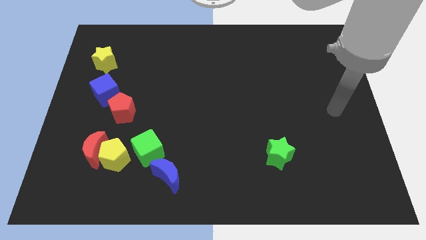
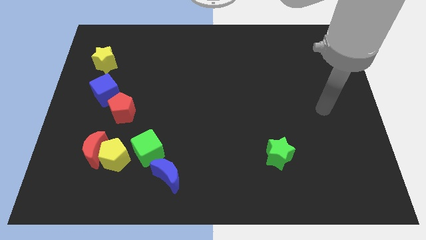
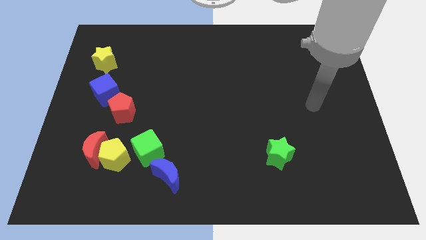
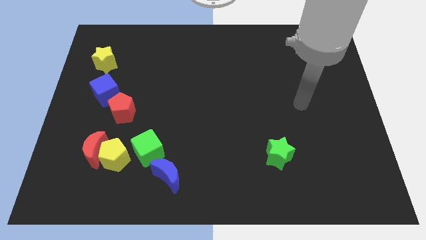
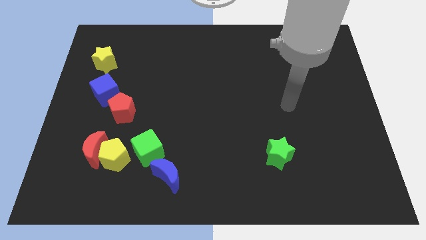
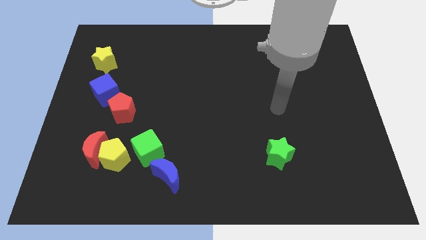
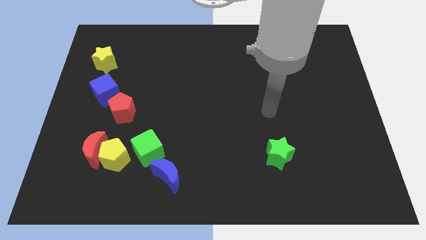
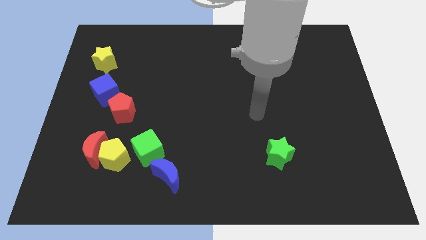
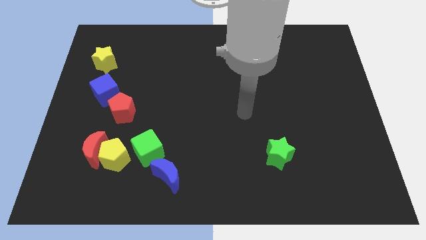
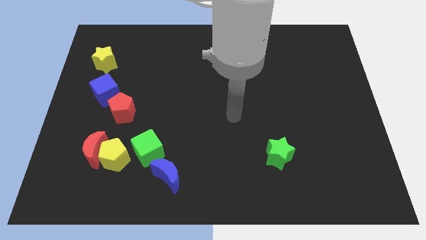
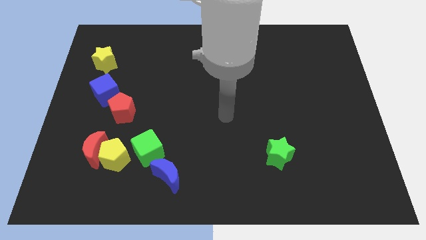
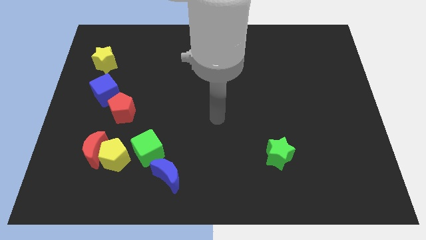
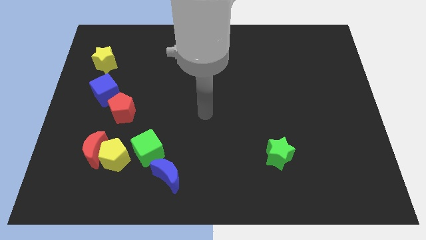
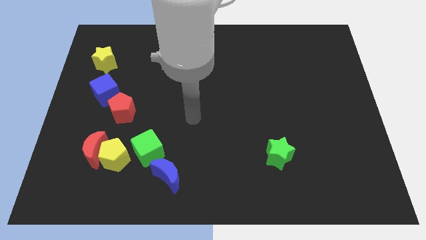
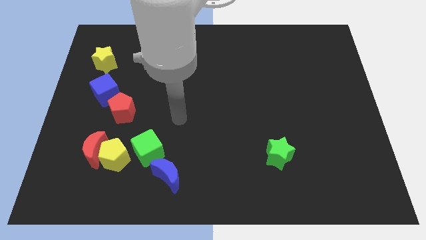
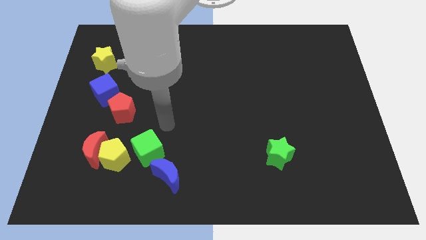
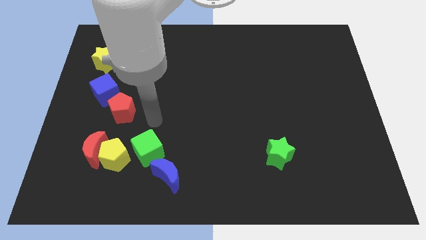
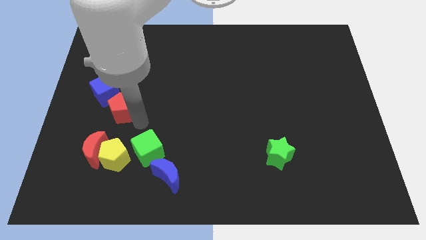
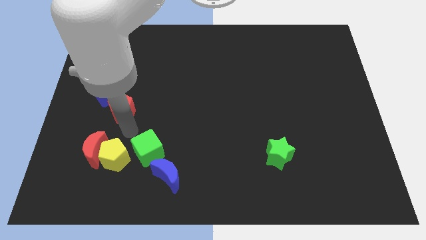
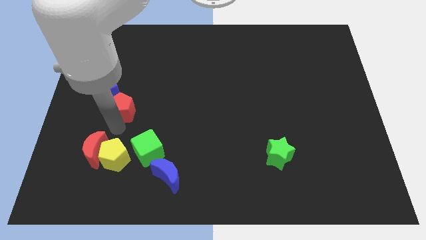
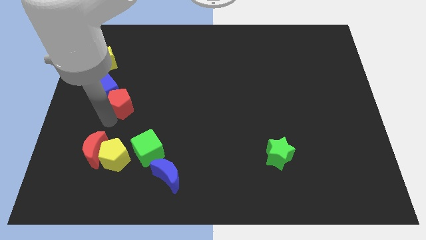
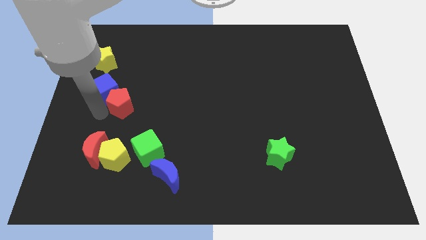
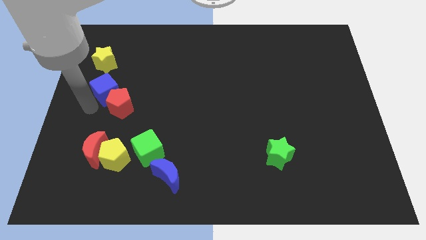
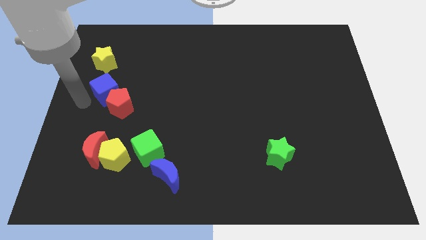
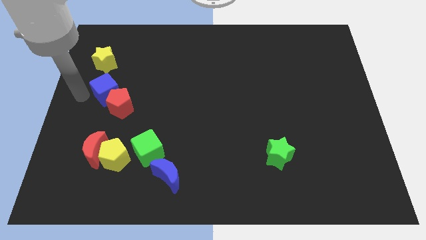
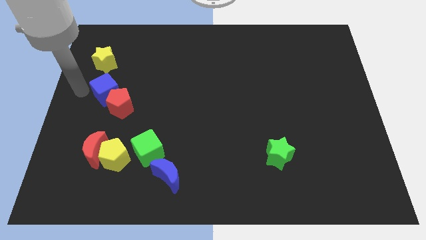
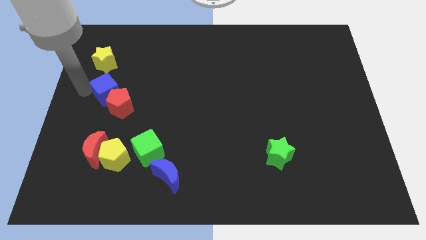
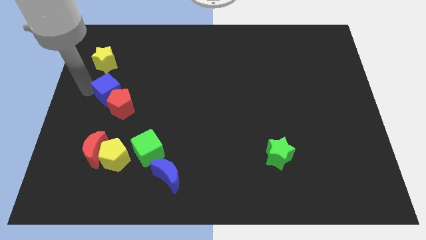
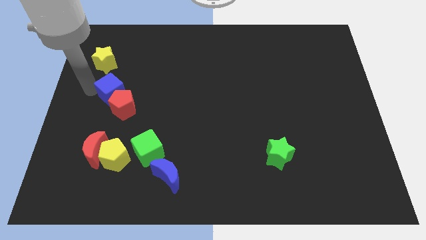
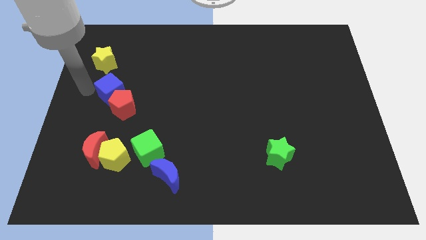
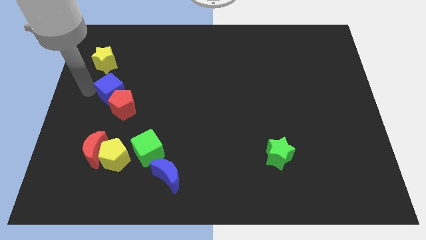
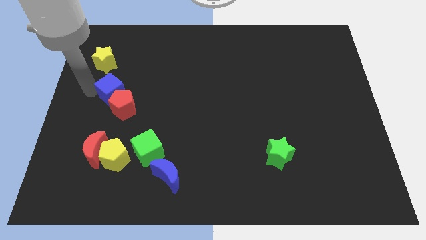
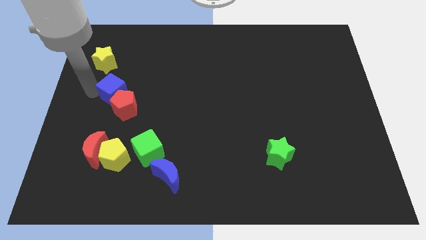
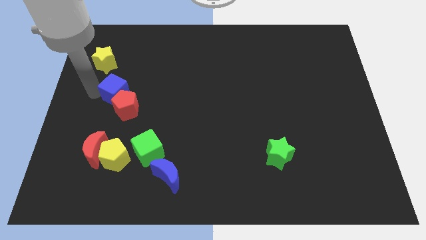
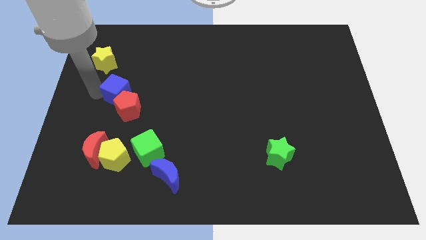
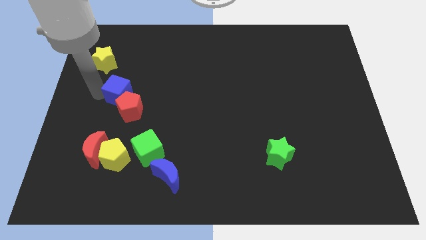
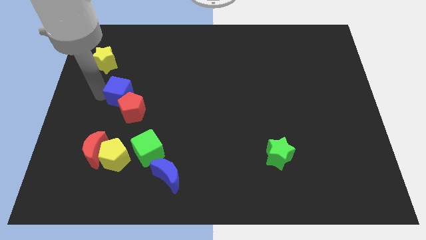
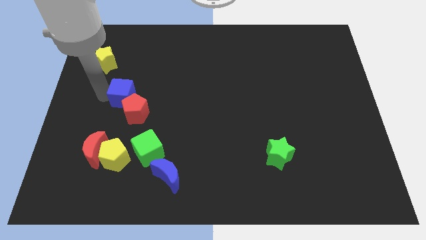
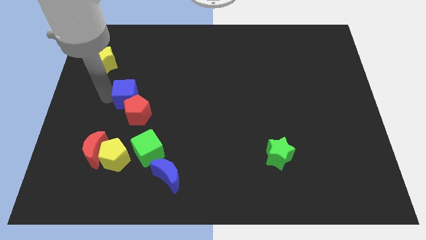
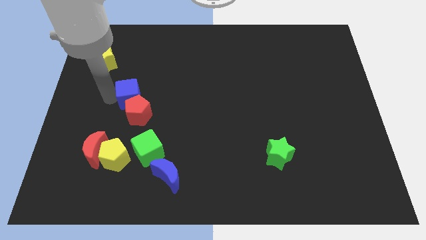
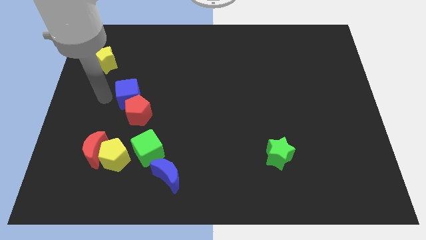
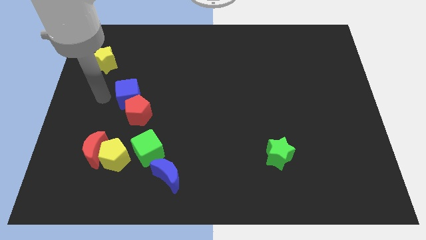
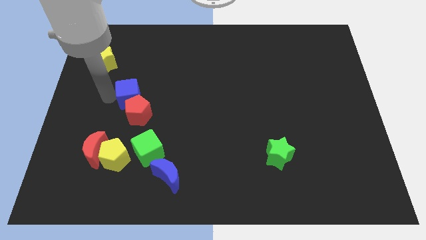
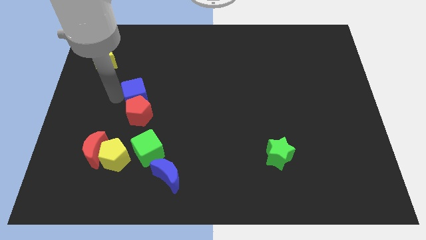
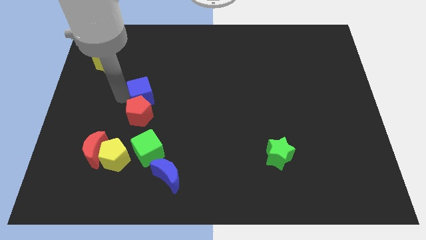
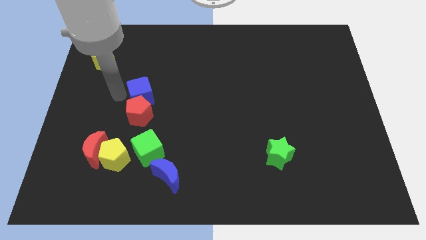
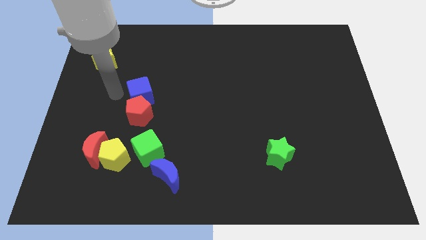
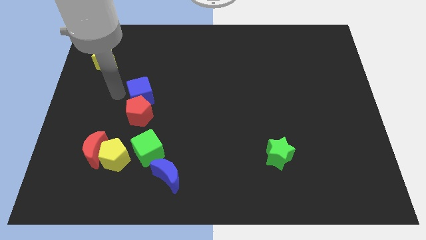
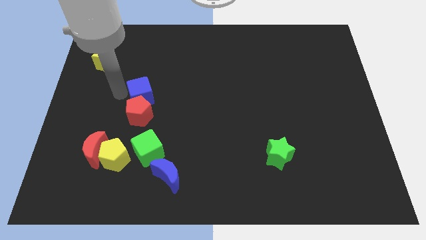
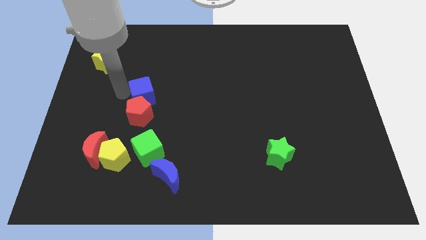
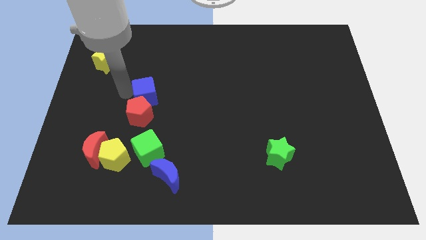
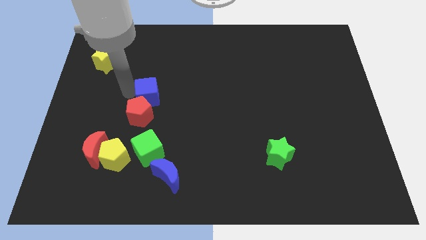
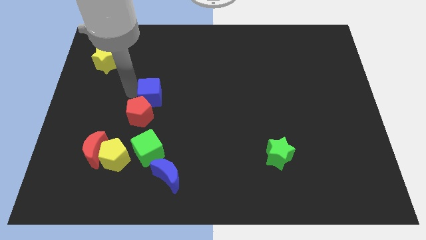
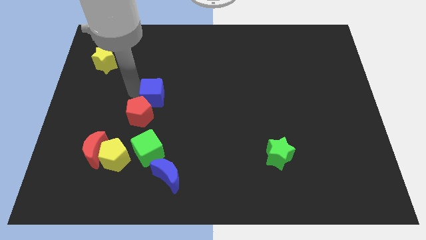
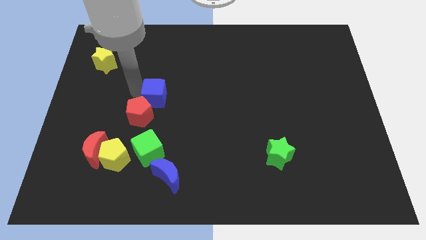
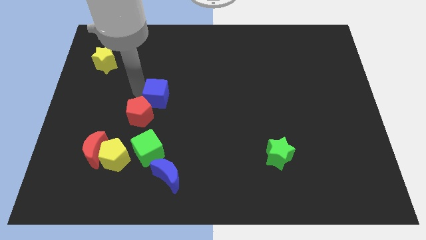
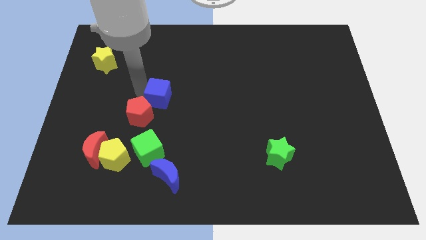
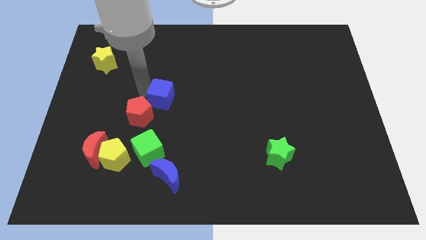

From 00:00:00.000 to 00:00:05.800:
move the blue cube to the middle
